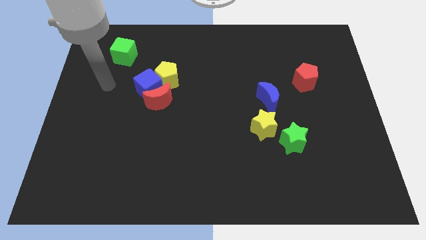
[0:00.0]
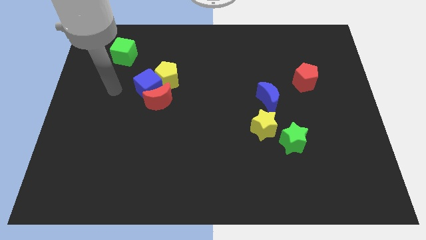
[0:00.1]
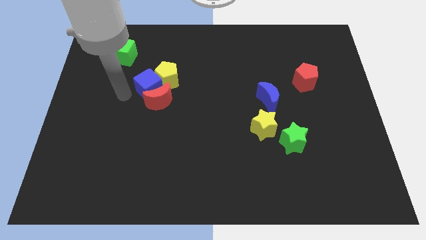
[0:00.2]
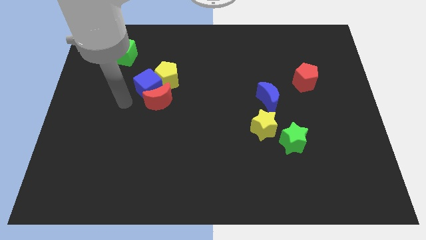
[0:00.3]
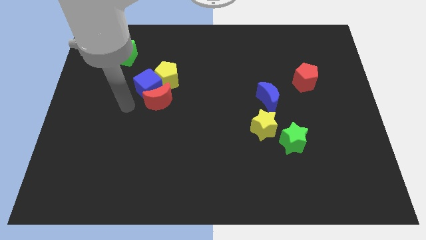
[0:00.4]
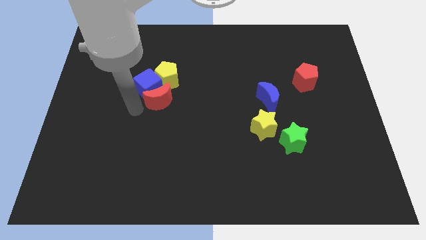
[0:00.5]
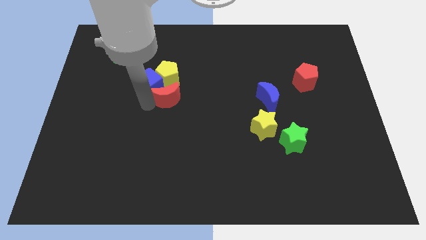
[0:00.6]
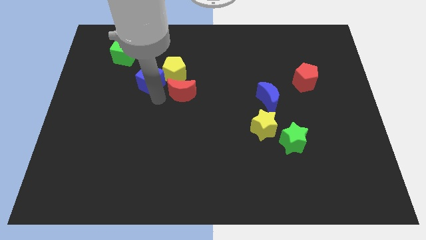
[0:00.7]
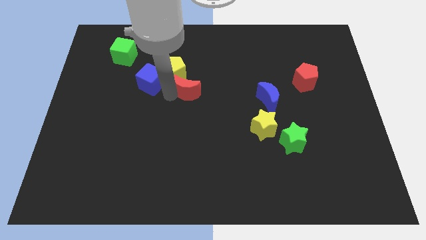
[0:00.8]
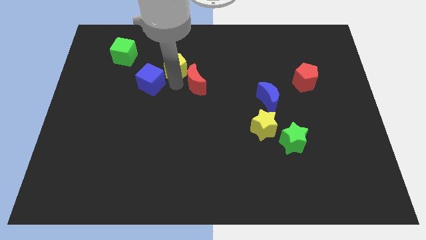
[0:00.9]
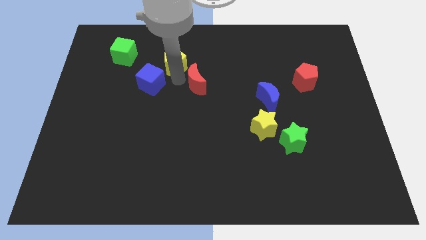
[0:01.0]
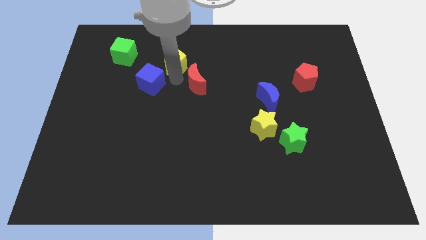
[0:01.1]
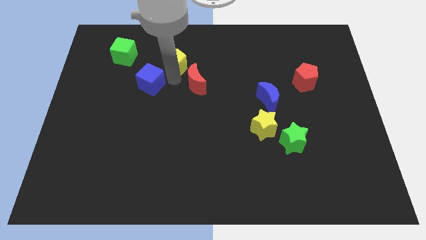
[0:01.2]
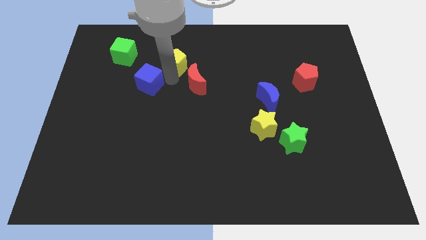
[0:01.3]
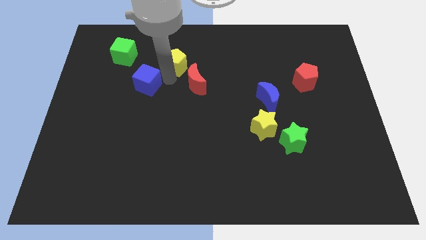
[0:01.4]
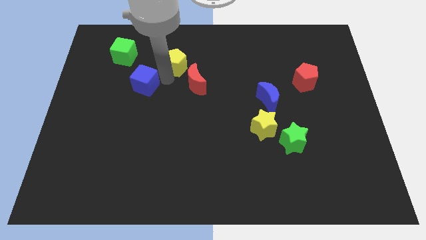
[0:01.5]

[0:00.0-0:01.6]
move the blue cube away from the red moon and yellow pentagon

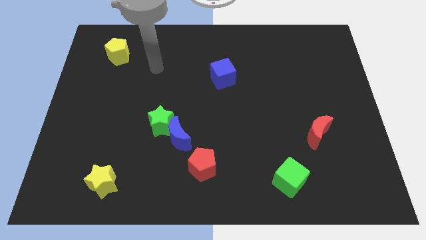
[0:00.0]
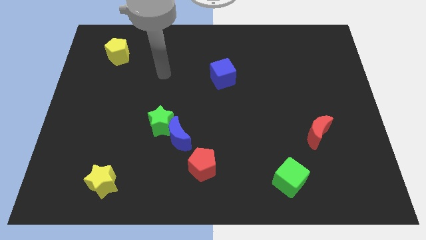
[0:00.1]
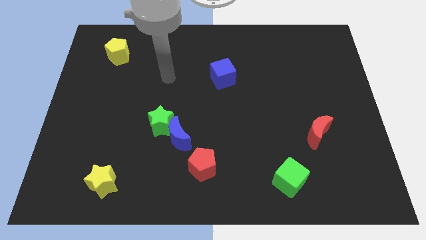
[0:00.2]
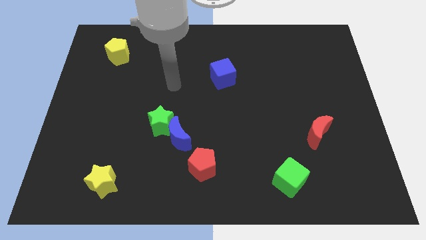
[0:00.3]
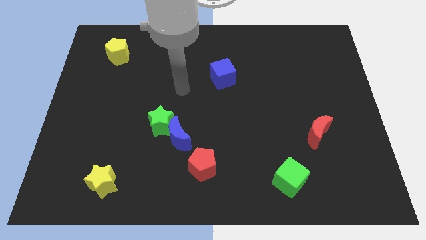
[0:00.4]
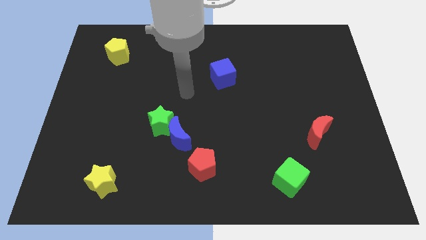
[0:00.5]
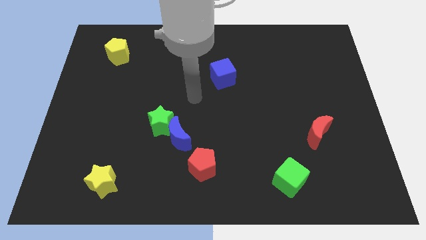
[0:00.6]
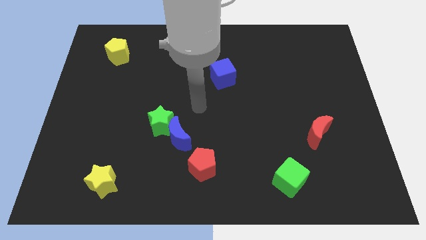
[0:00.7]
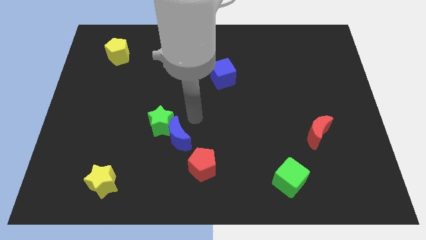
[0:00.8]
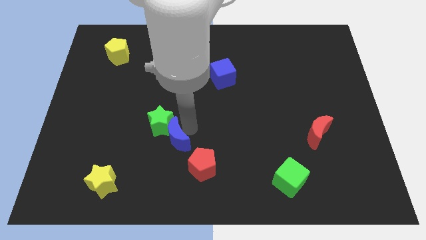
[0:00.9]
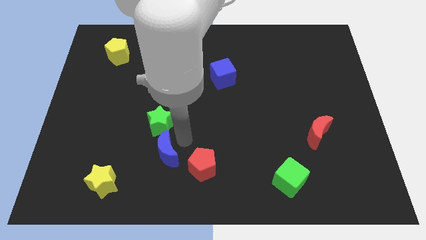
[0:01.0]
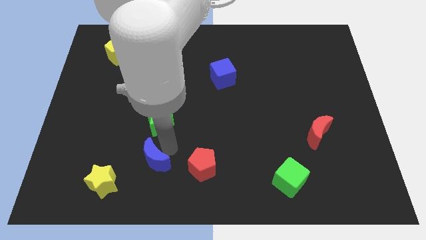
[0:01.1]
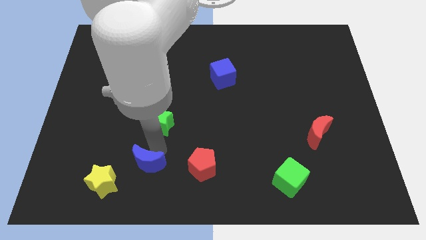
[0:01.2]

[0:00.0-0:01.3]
pull the green star apart from the blue moon

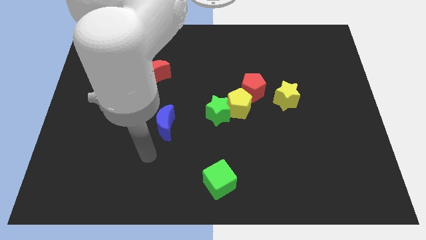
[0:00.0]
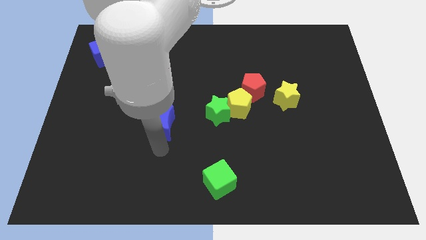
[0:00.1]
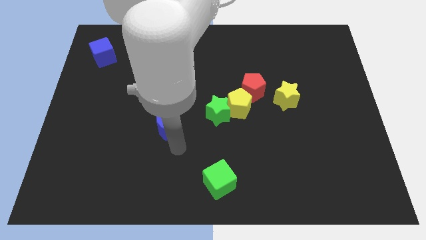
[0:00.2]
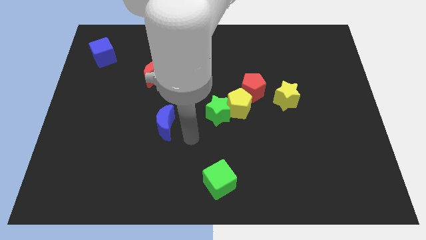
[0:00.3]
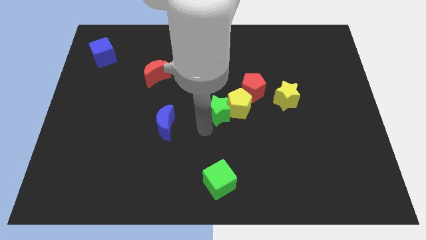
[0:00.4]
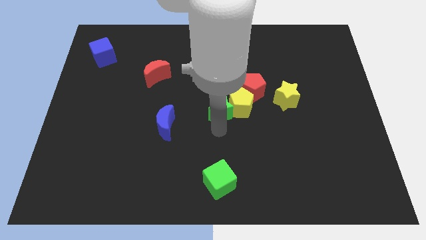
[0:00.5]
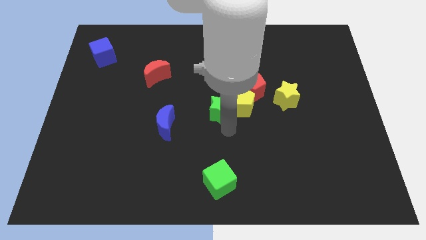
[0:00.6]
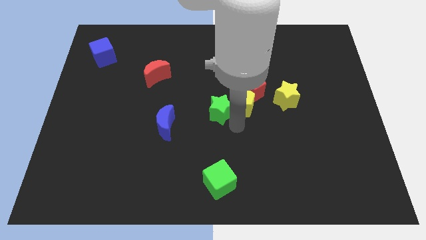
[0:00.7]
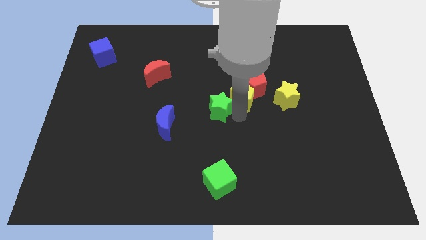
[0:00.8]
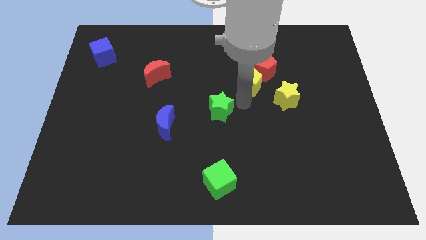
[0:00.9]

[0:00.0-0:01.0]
pull the green star apart from the yellow pentagon

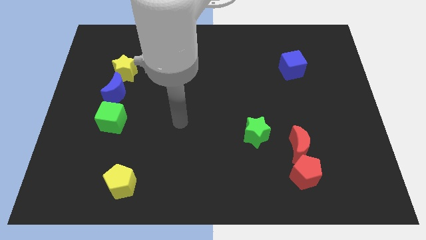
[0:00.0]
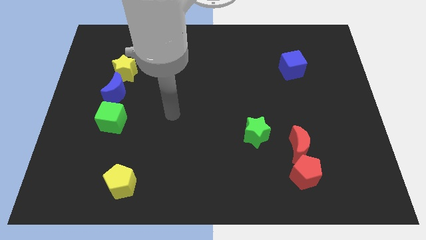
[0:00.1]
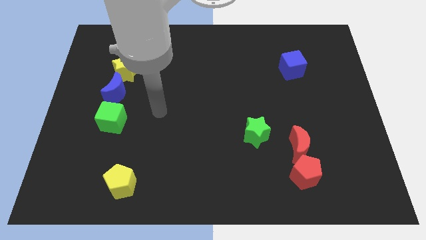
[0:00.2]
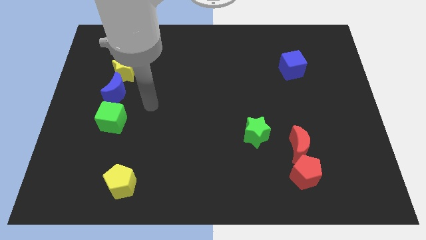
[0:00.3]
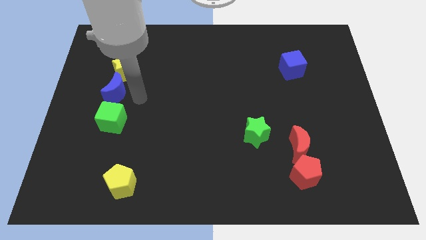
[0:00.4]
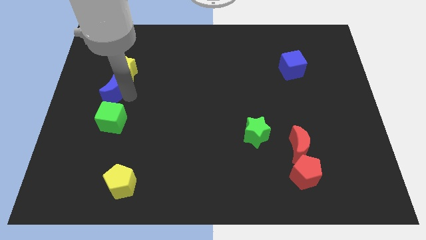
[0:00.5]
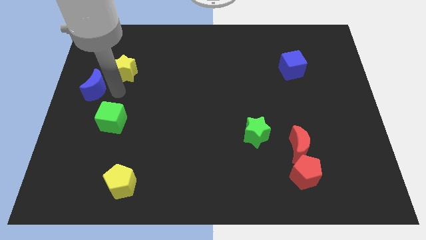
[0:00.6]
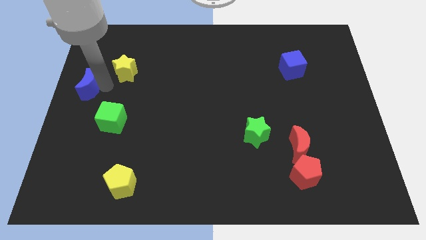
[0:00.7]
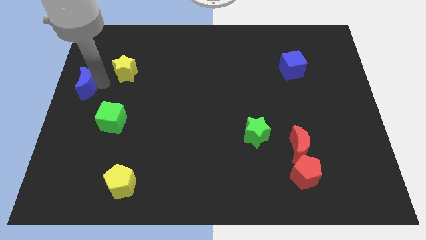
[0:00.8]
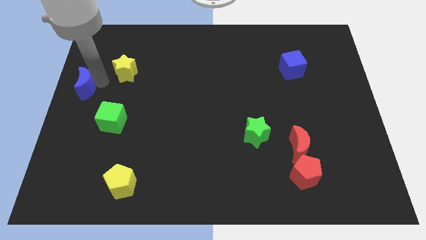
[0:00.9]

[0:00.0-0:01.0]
separate the yellow star from the blue moon

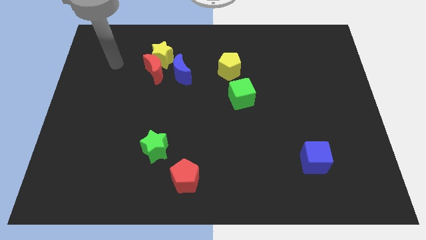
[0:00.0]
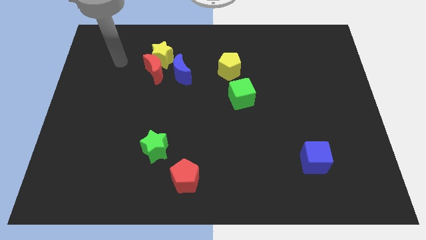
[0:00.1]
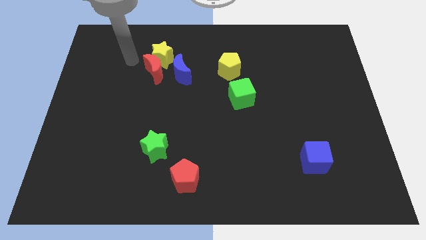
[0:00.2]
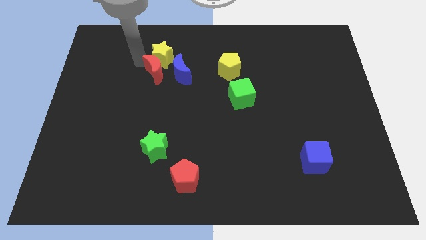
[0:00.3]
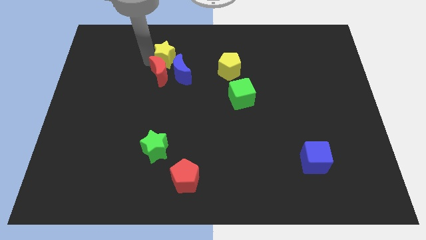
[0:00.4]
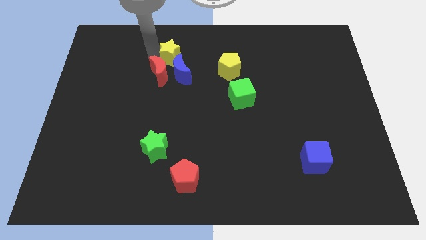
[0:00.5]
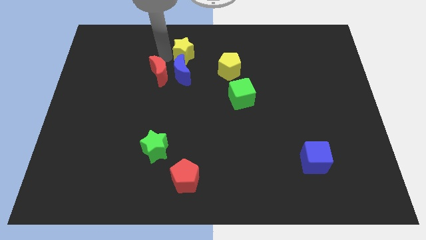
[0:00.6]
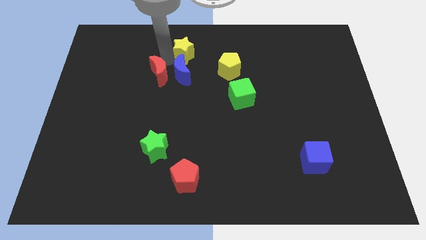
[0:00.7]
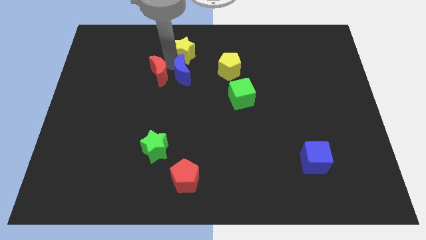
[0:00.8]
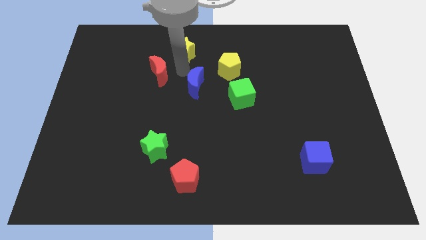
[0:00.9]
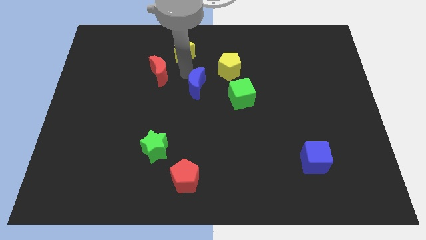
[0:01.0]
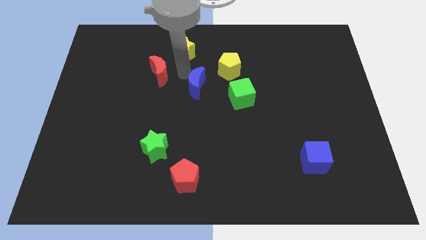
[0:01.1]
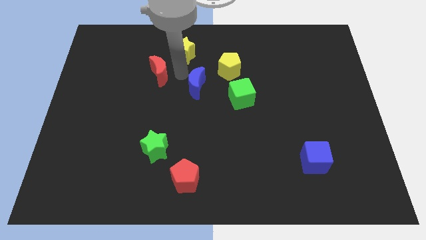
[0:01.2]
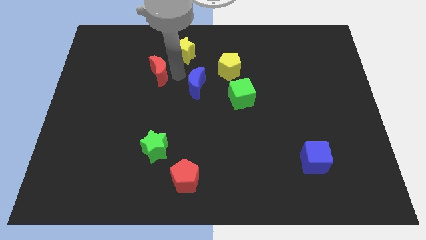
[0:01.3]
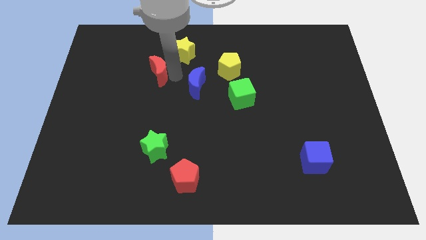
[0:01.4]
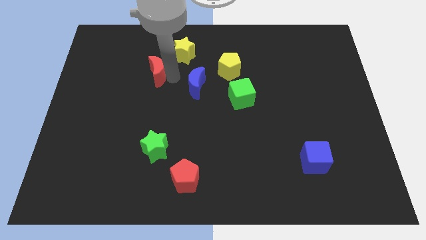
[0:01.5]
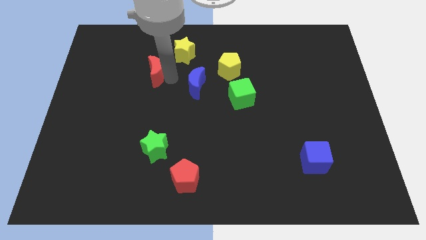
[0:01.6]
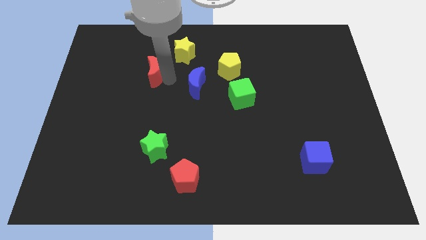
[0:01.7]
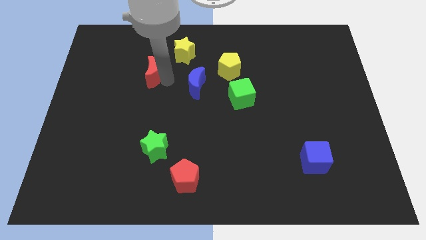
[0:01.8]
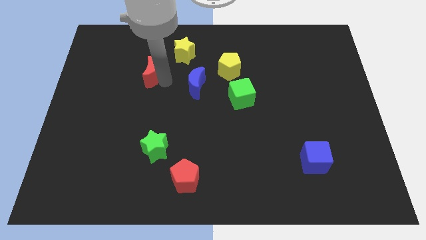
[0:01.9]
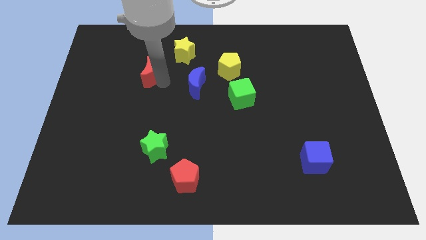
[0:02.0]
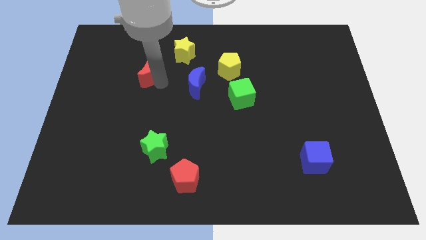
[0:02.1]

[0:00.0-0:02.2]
pull the red moon apart from the yellow star and blue moon

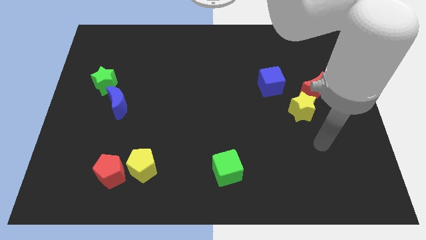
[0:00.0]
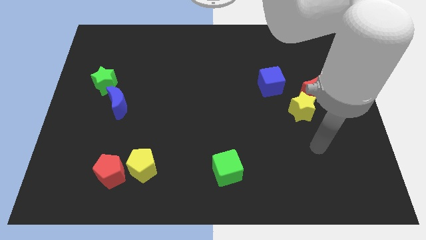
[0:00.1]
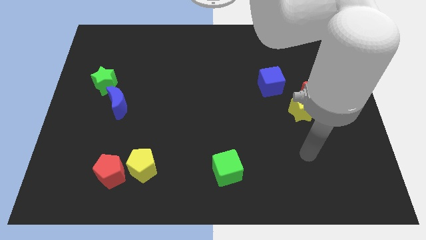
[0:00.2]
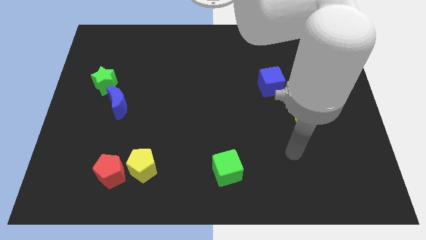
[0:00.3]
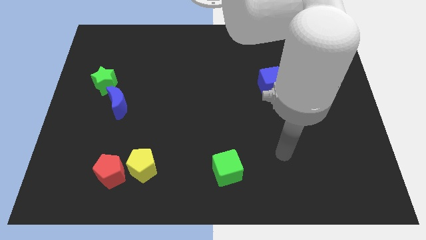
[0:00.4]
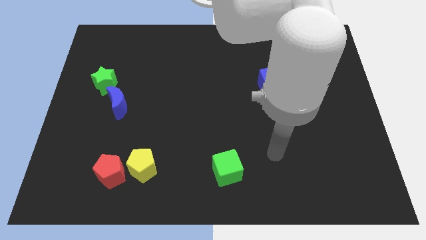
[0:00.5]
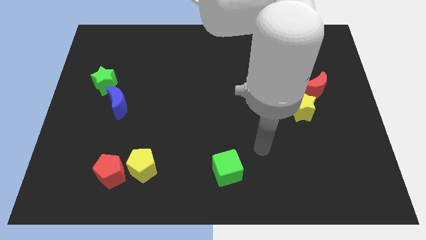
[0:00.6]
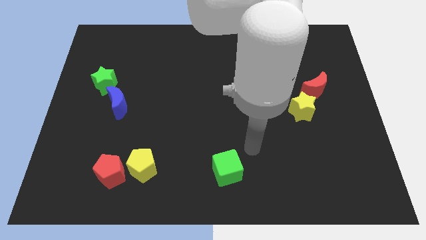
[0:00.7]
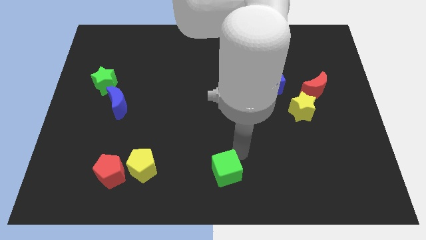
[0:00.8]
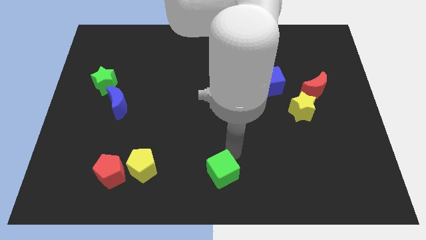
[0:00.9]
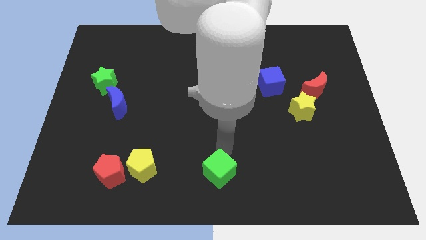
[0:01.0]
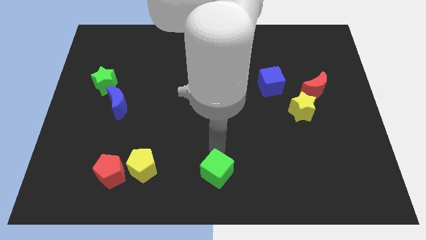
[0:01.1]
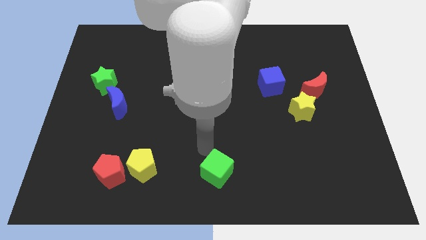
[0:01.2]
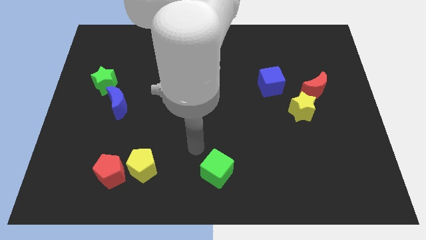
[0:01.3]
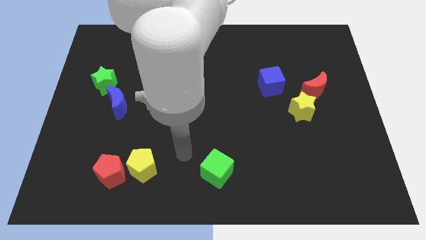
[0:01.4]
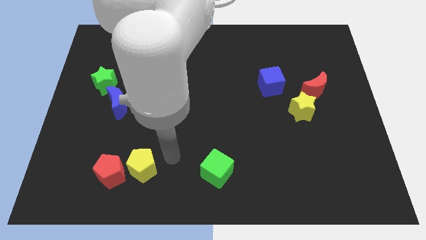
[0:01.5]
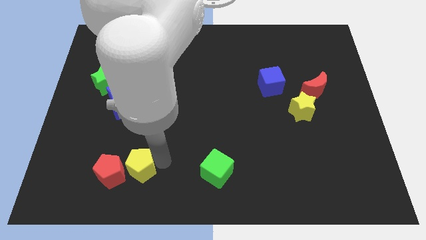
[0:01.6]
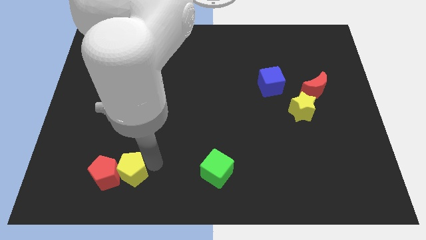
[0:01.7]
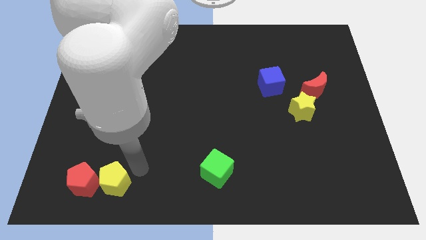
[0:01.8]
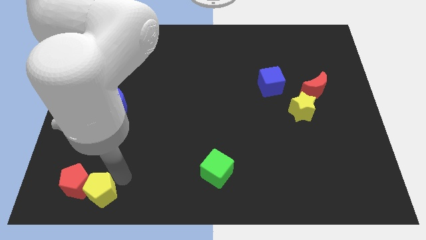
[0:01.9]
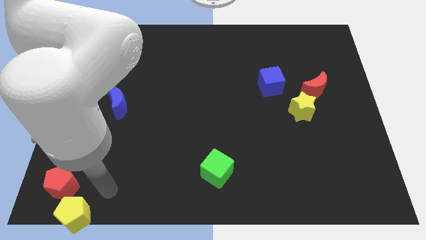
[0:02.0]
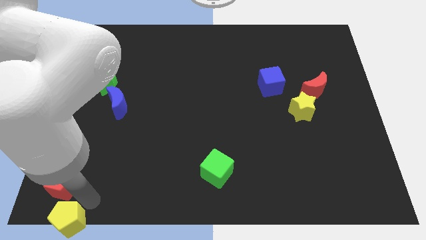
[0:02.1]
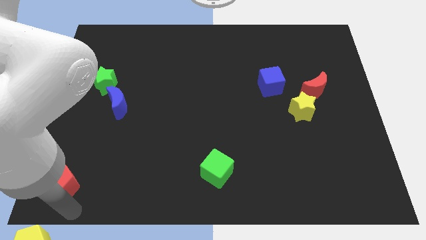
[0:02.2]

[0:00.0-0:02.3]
pull the red pentagon apart from the yellow pentagon

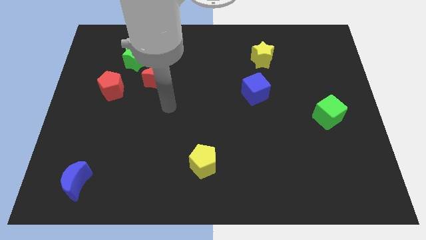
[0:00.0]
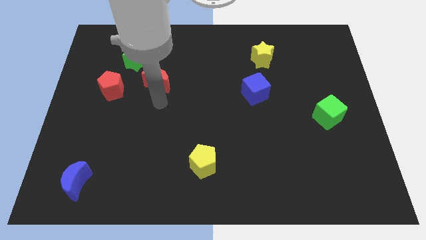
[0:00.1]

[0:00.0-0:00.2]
pull the red moon apart from the green star
